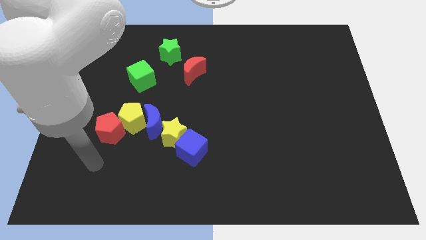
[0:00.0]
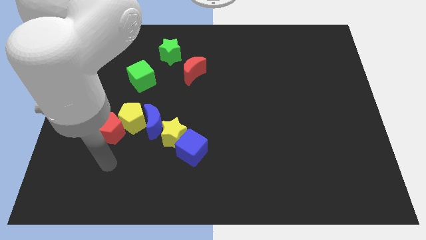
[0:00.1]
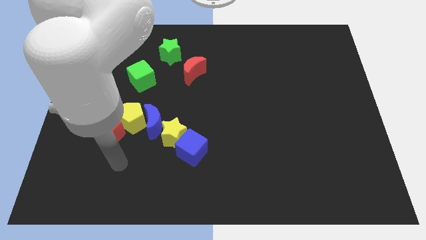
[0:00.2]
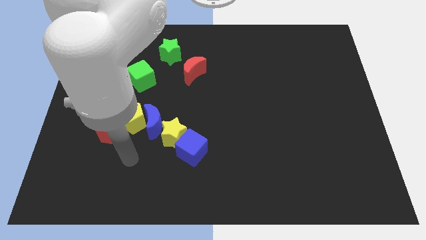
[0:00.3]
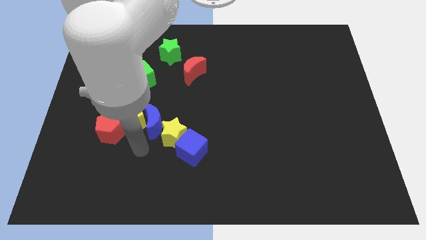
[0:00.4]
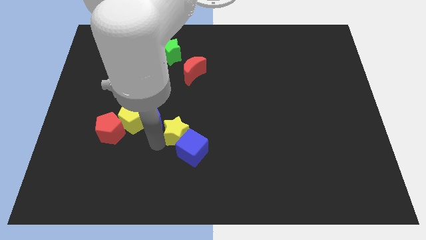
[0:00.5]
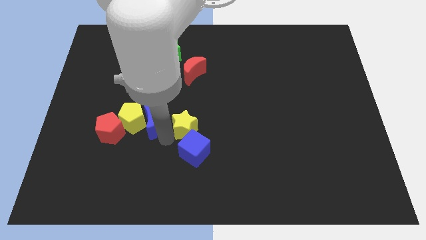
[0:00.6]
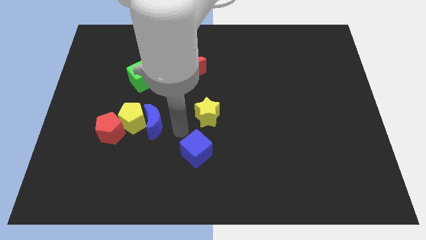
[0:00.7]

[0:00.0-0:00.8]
pull the blue cube apart from the yellow star

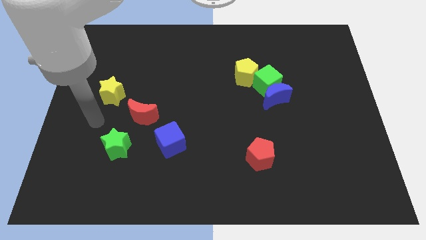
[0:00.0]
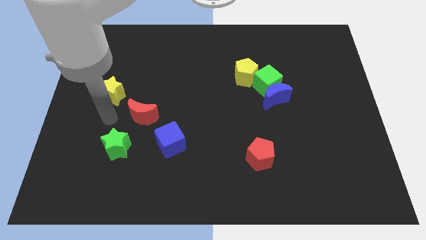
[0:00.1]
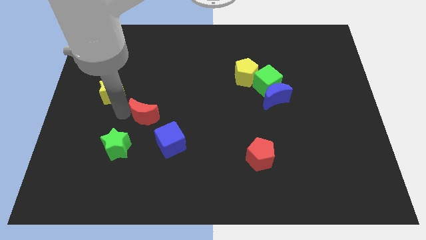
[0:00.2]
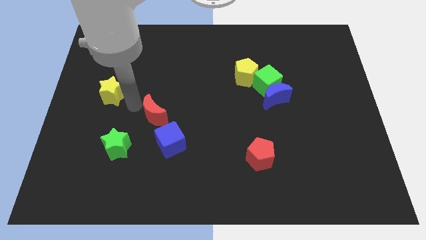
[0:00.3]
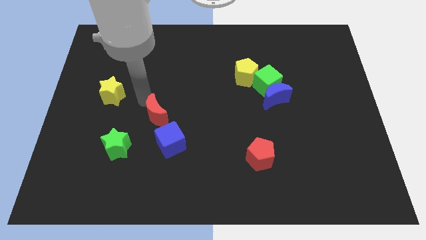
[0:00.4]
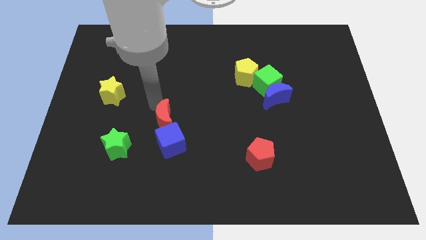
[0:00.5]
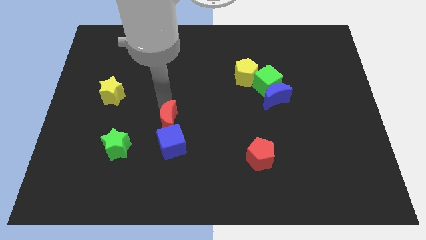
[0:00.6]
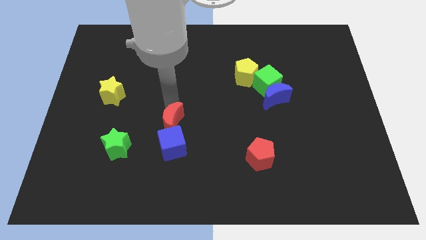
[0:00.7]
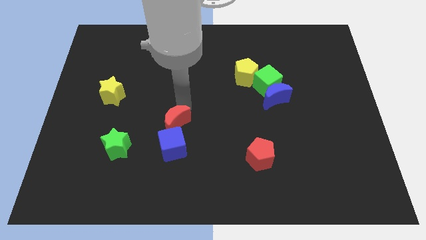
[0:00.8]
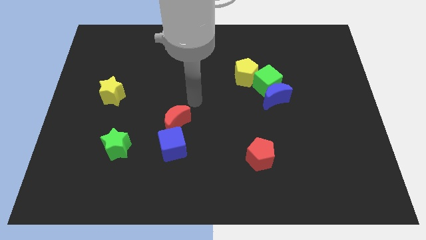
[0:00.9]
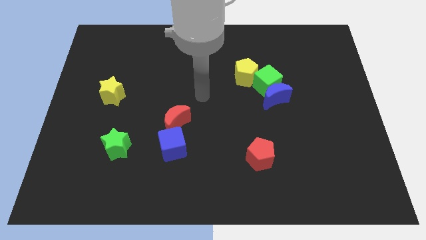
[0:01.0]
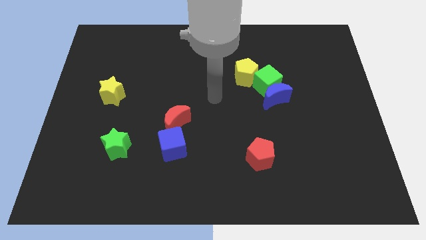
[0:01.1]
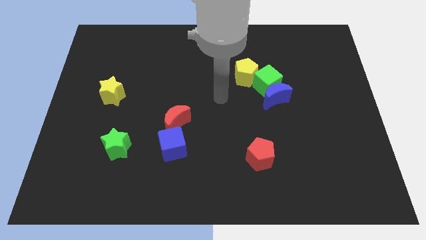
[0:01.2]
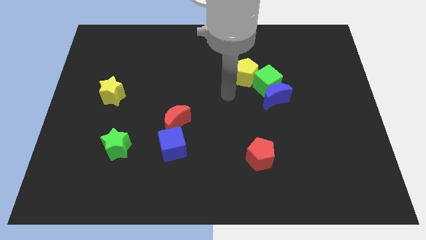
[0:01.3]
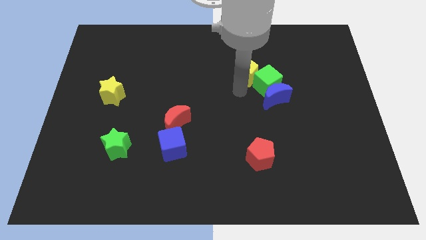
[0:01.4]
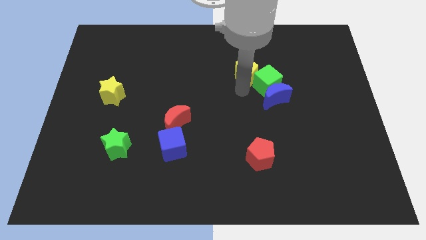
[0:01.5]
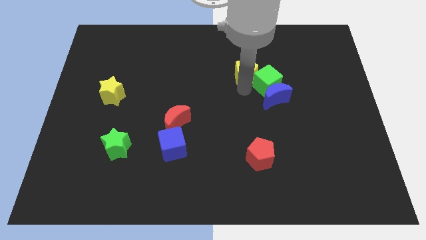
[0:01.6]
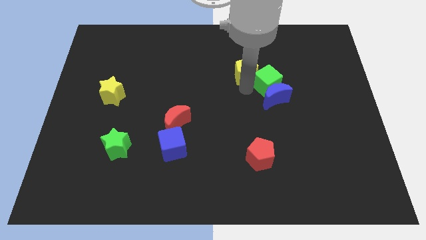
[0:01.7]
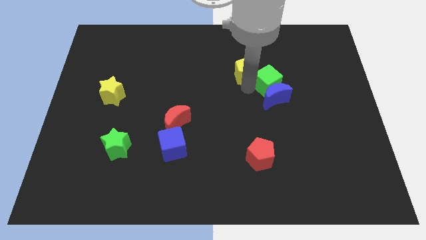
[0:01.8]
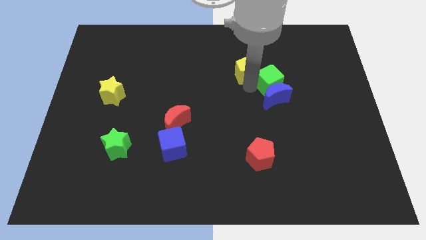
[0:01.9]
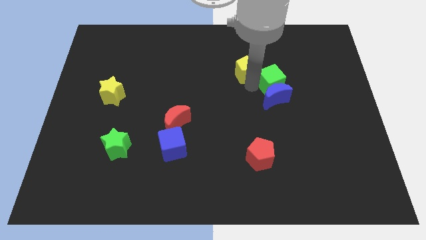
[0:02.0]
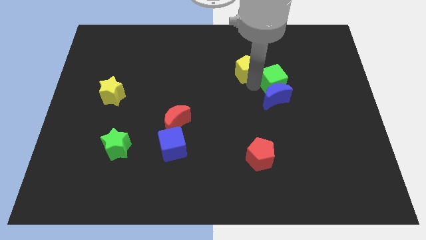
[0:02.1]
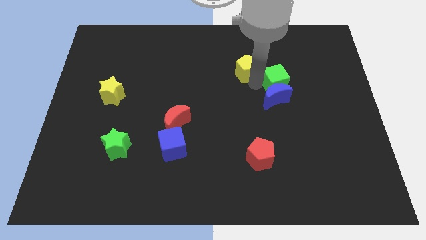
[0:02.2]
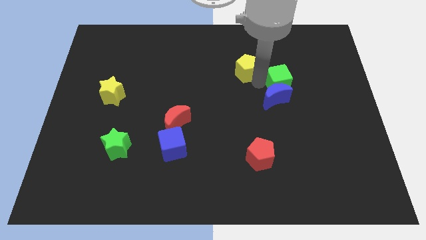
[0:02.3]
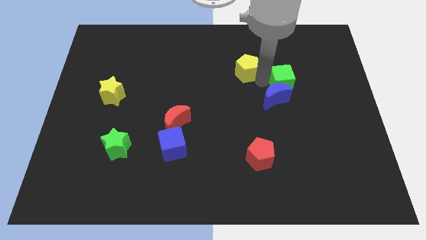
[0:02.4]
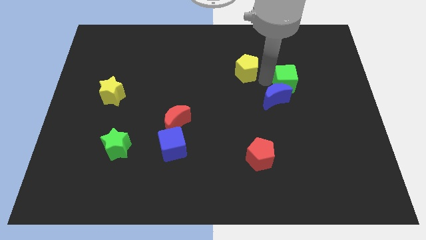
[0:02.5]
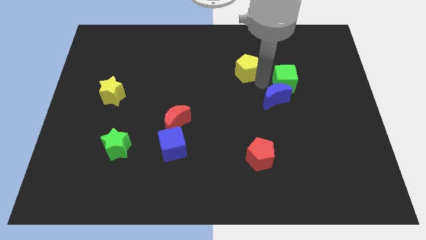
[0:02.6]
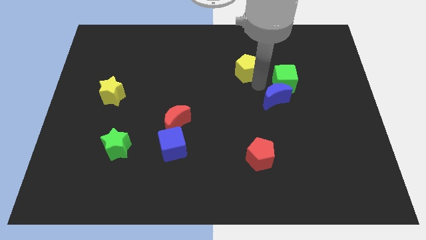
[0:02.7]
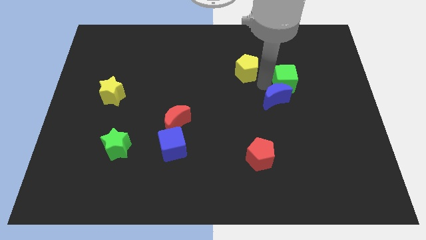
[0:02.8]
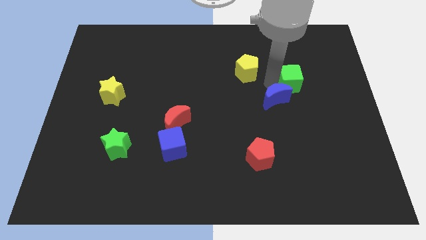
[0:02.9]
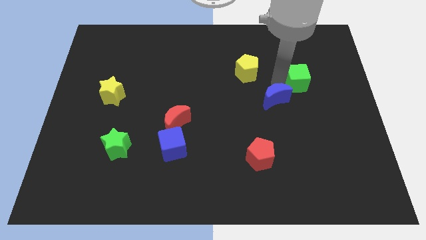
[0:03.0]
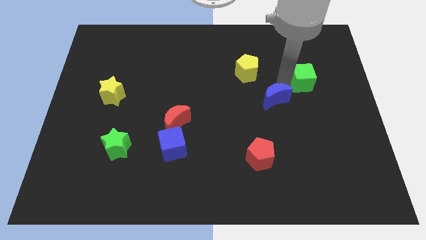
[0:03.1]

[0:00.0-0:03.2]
pull the green cube apart from the blue moon and yellow pentagon

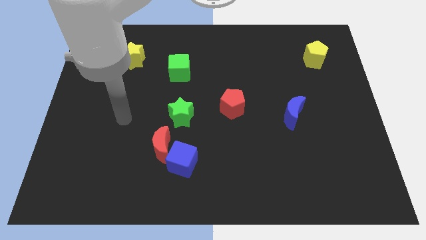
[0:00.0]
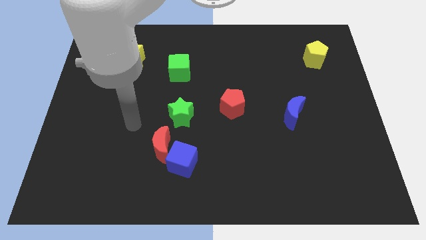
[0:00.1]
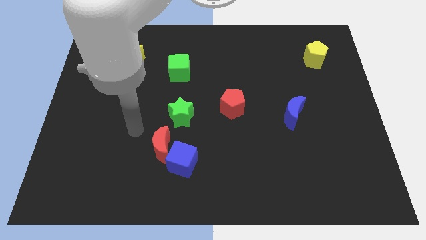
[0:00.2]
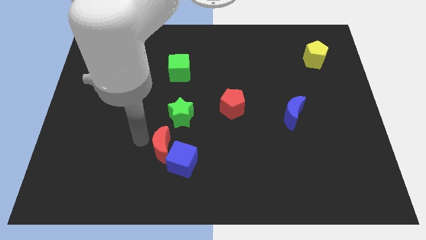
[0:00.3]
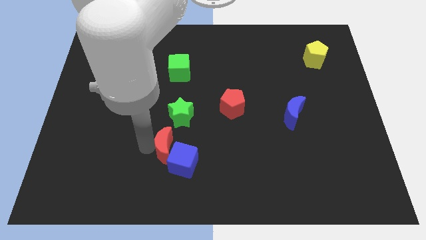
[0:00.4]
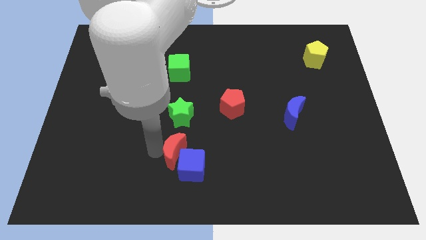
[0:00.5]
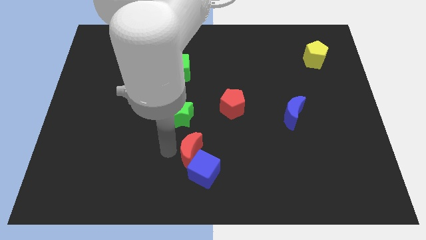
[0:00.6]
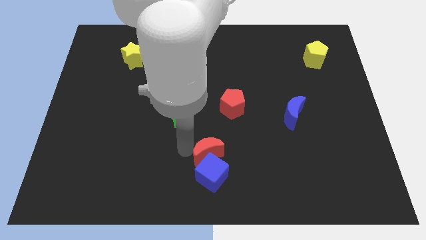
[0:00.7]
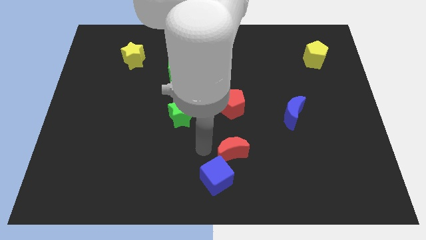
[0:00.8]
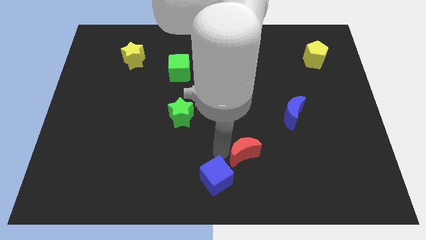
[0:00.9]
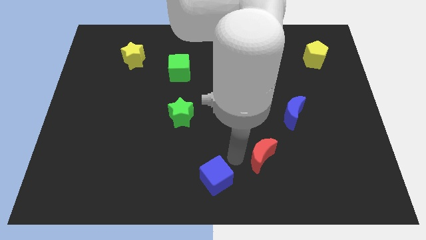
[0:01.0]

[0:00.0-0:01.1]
pull the blue cube apart from the red moon

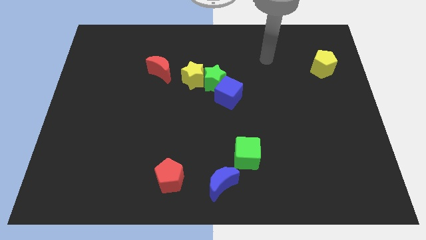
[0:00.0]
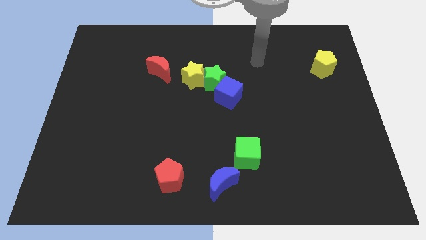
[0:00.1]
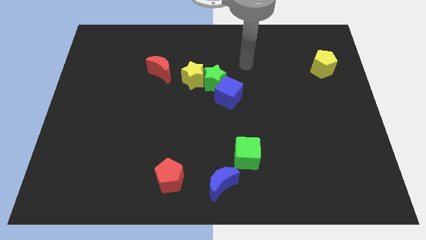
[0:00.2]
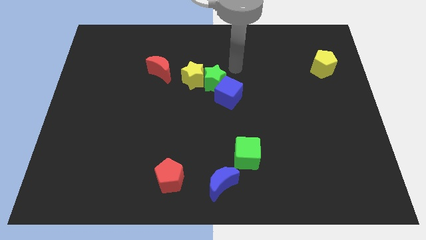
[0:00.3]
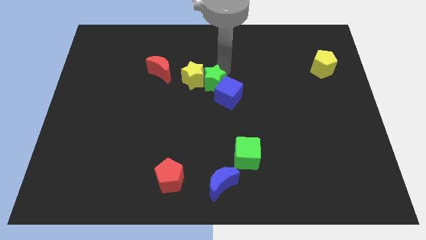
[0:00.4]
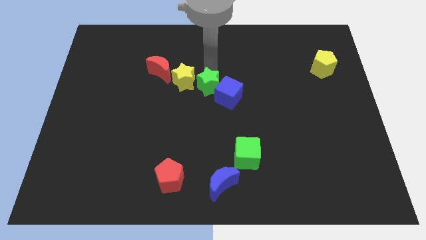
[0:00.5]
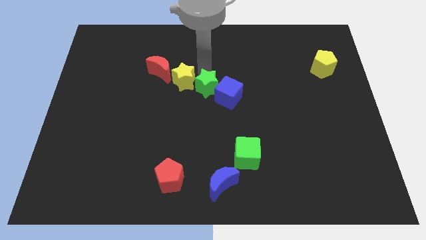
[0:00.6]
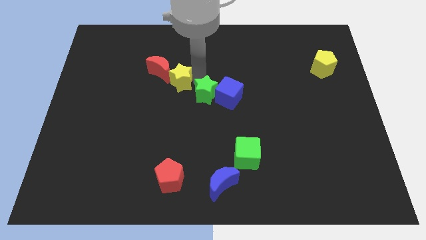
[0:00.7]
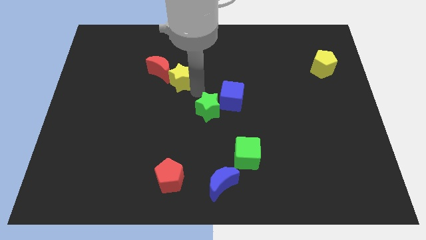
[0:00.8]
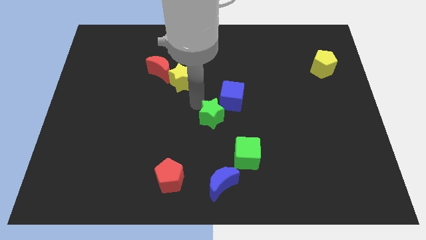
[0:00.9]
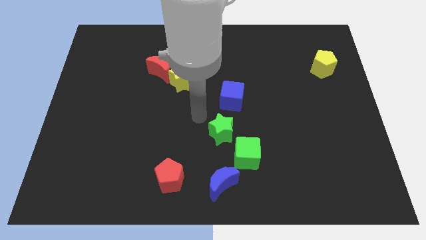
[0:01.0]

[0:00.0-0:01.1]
pull the green star apart from the blue cube and yellow star

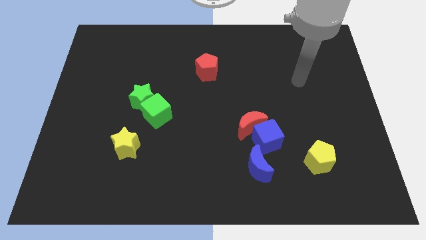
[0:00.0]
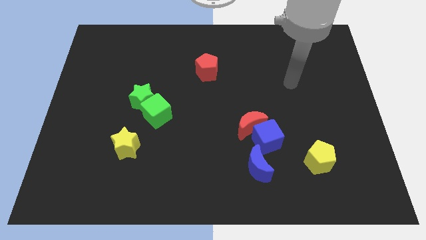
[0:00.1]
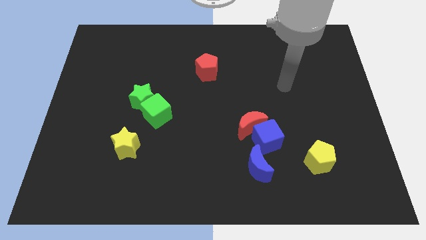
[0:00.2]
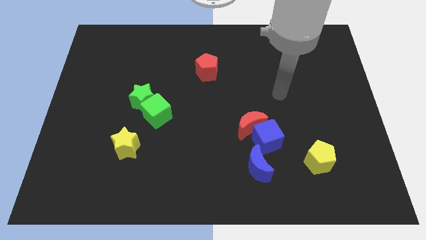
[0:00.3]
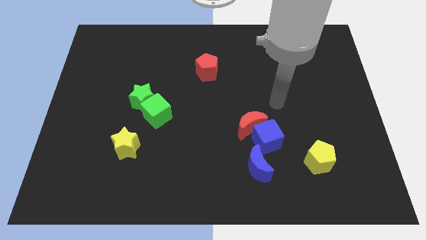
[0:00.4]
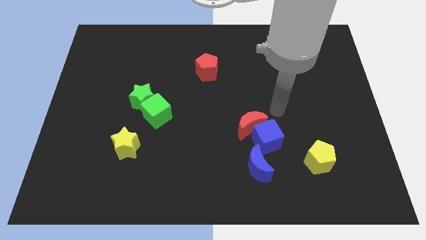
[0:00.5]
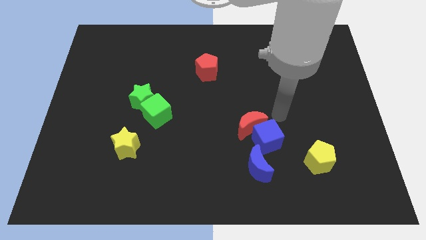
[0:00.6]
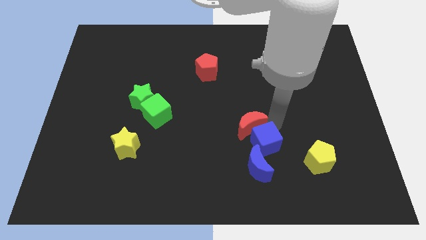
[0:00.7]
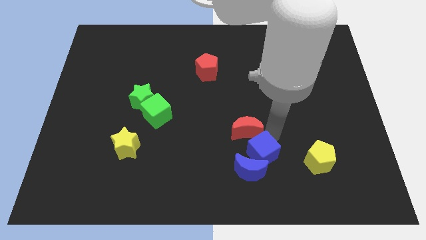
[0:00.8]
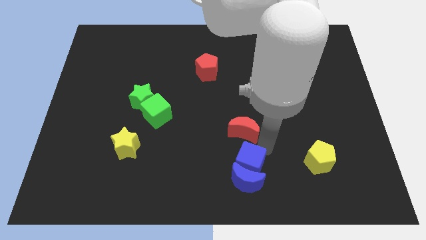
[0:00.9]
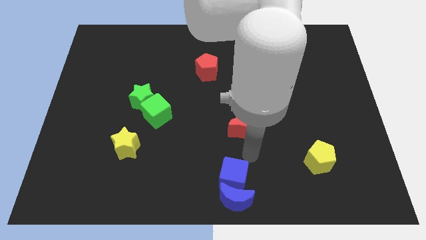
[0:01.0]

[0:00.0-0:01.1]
pull the red moon apart from the blue cube

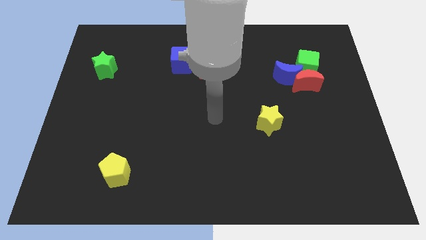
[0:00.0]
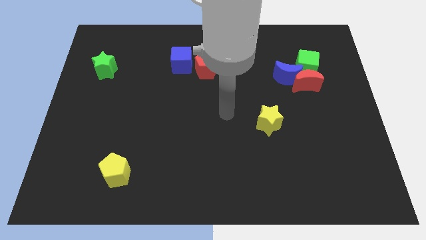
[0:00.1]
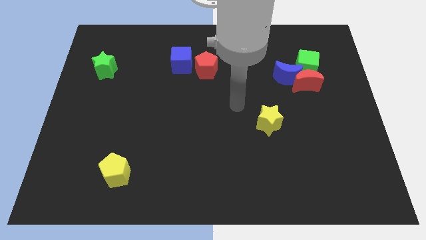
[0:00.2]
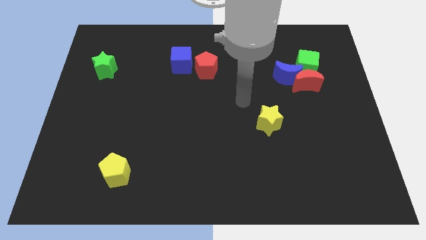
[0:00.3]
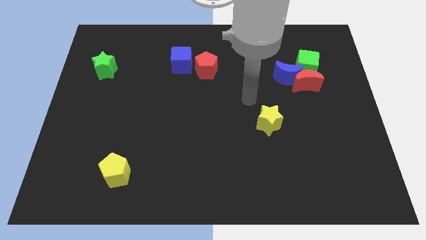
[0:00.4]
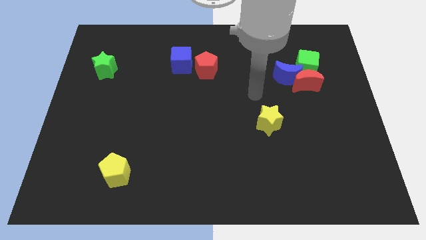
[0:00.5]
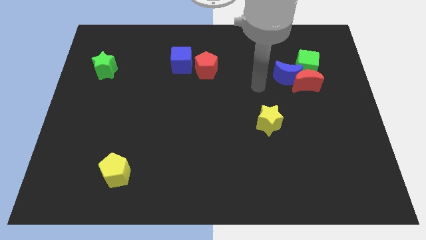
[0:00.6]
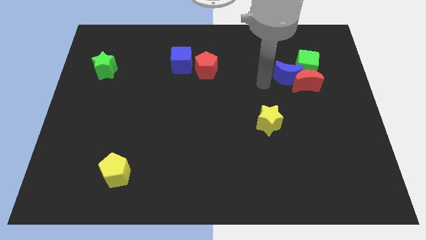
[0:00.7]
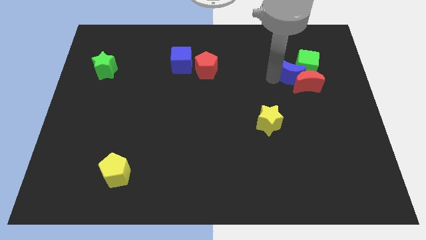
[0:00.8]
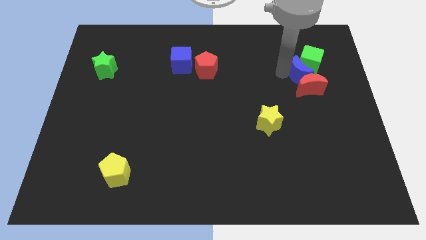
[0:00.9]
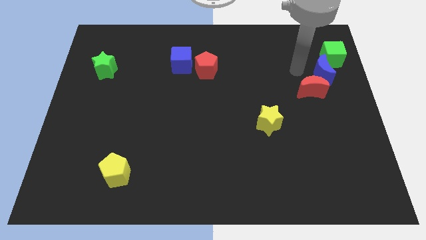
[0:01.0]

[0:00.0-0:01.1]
move the red moon away from the blue moon and green cube

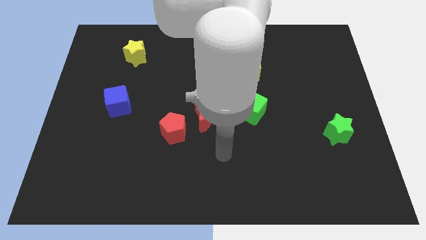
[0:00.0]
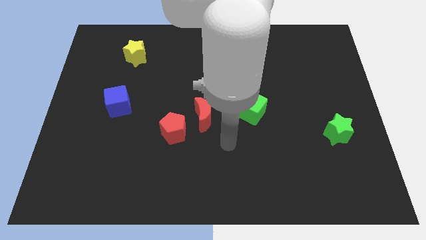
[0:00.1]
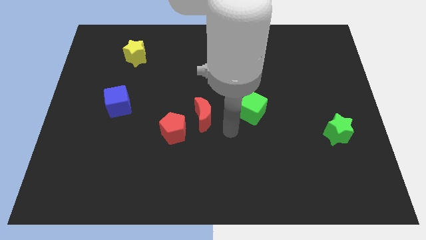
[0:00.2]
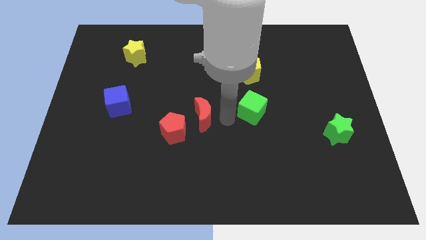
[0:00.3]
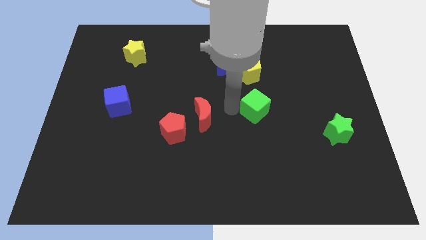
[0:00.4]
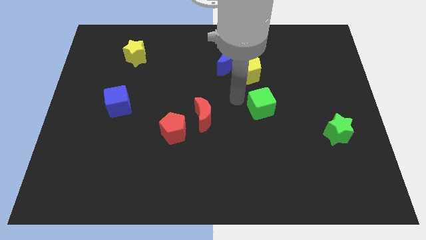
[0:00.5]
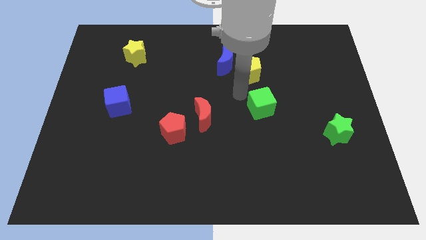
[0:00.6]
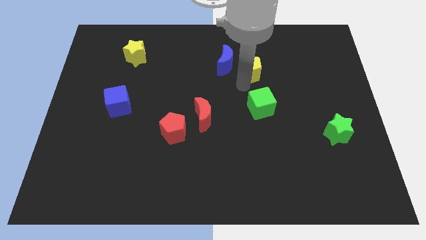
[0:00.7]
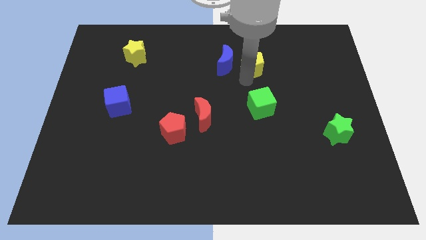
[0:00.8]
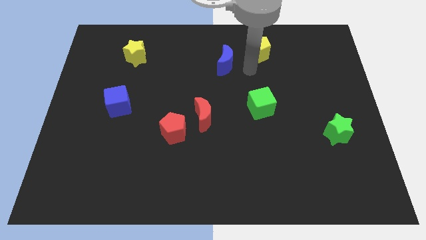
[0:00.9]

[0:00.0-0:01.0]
separate the blue moon from the yellow pentagon
